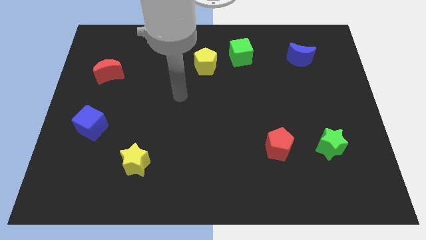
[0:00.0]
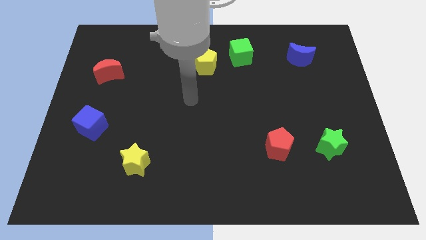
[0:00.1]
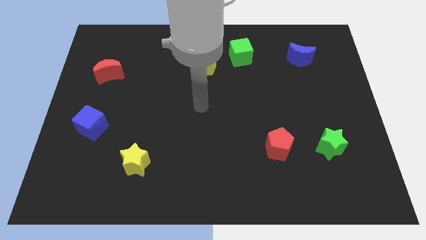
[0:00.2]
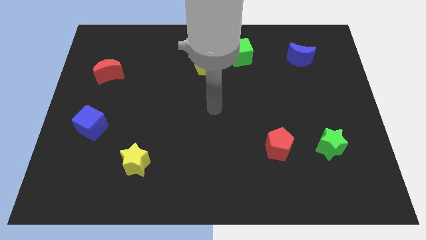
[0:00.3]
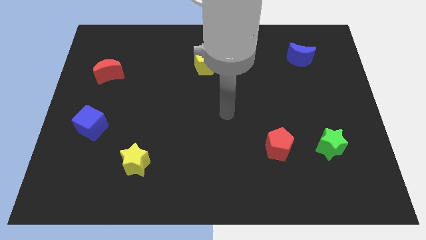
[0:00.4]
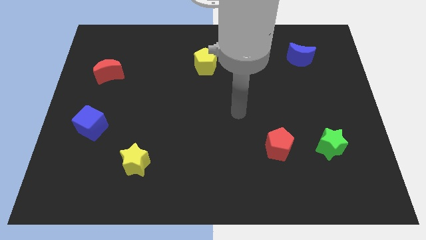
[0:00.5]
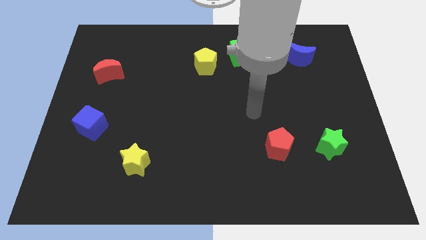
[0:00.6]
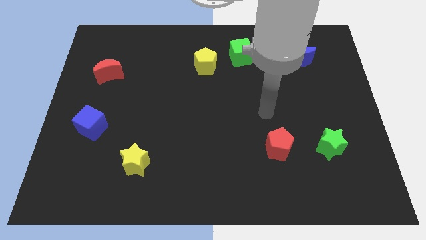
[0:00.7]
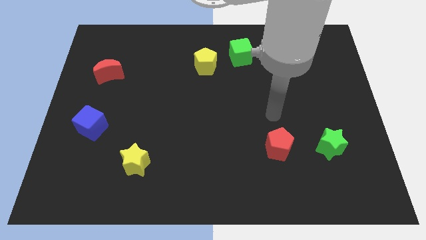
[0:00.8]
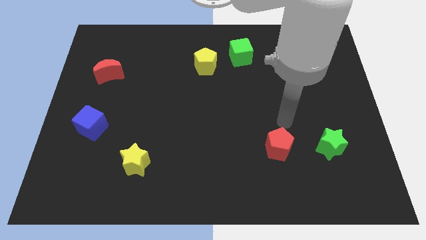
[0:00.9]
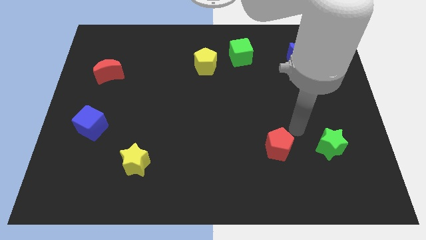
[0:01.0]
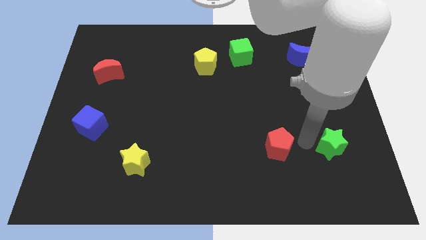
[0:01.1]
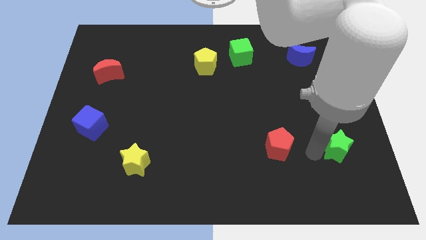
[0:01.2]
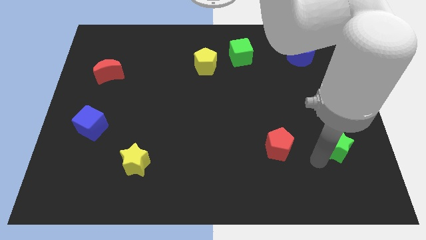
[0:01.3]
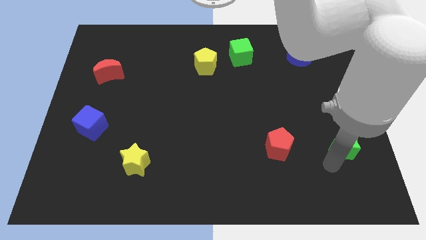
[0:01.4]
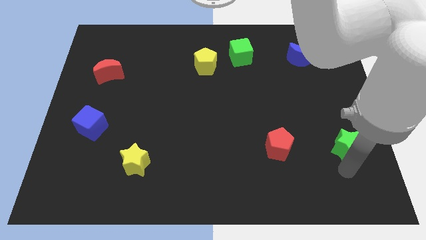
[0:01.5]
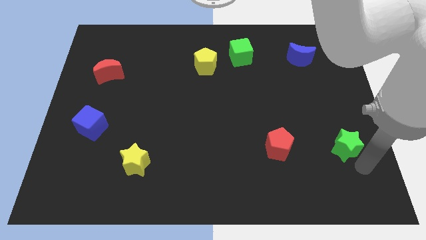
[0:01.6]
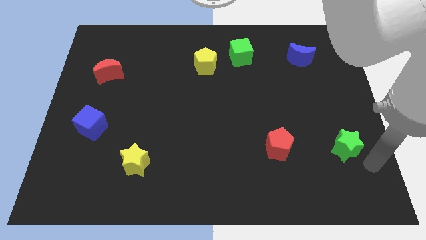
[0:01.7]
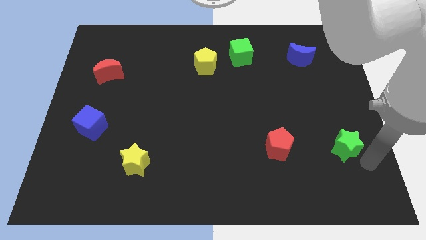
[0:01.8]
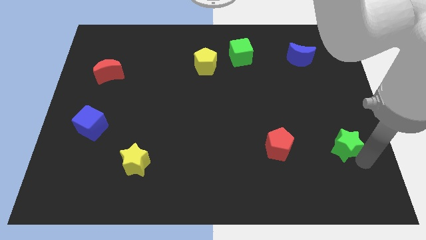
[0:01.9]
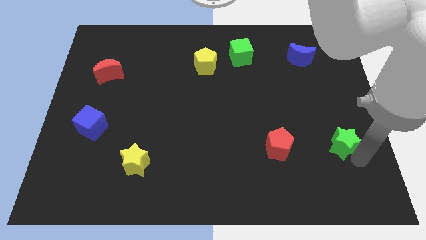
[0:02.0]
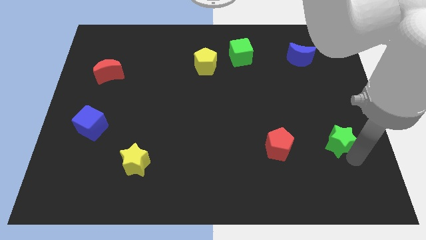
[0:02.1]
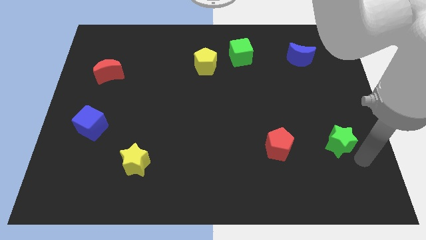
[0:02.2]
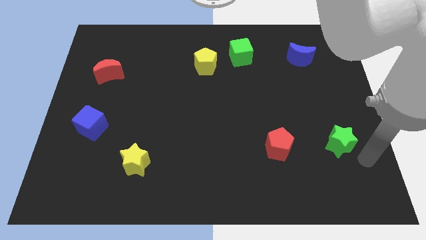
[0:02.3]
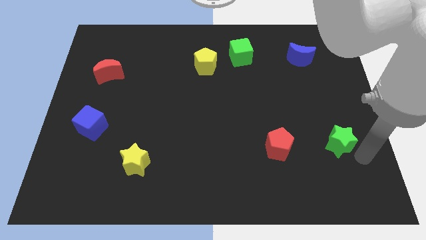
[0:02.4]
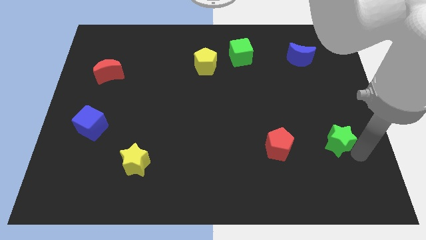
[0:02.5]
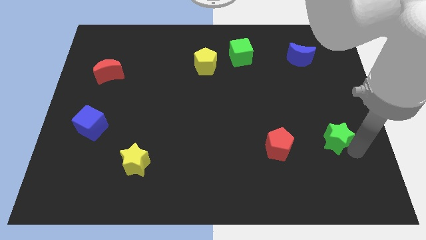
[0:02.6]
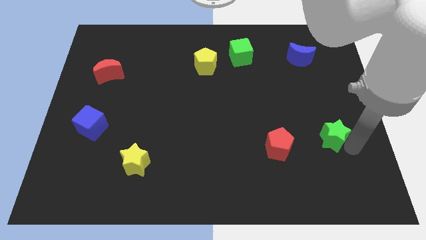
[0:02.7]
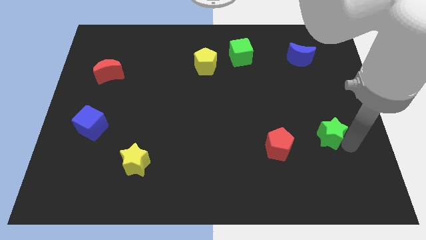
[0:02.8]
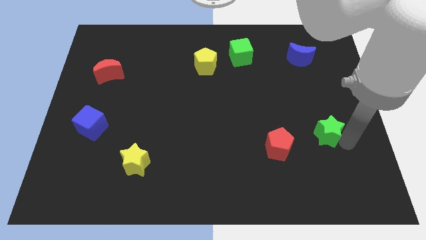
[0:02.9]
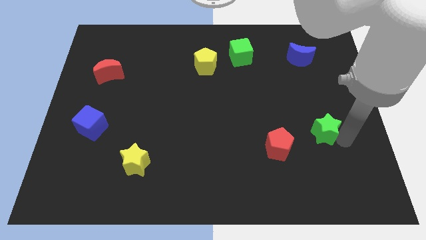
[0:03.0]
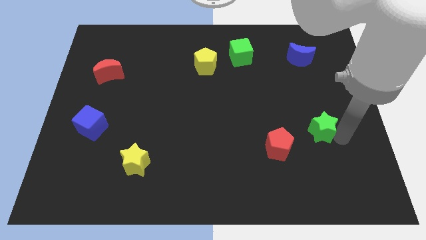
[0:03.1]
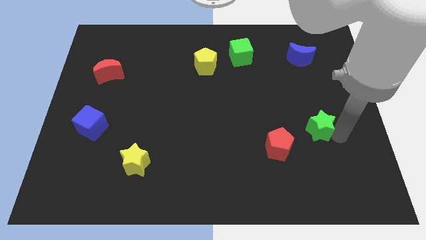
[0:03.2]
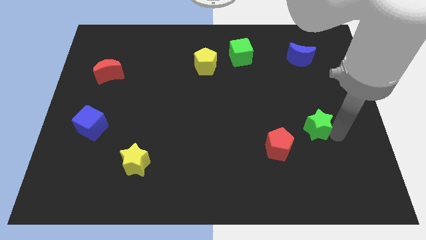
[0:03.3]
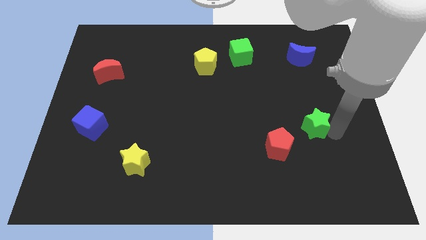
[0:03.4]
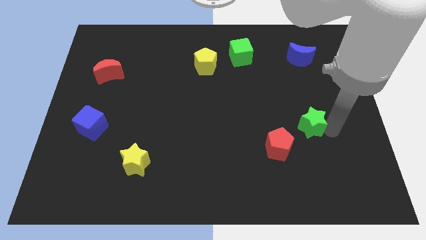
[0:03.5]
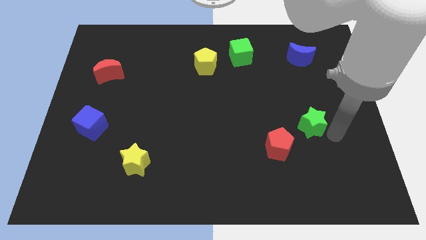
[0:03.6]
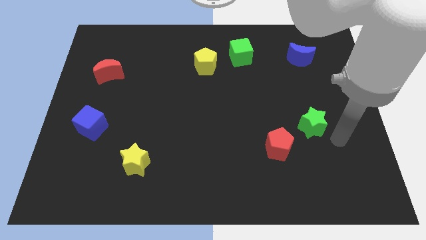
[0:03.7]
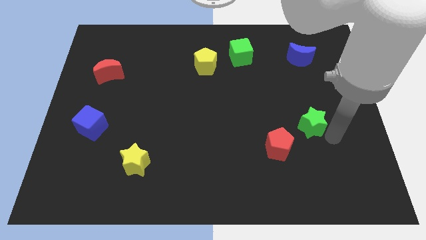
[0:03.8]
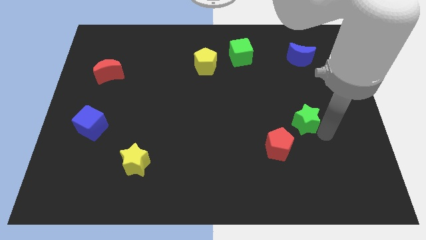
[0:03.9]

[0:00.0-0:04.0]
move the green star a little bit upwards and then left

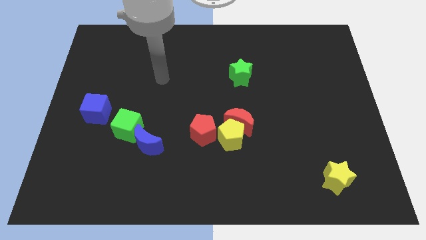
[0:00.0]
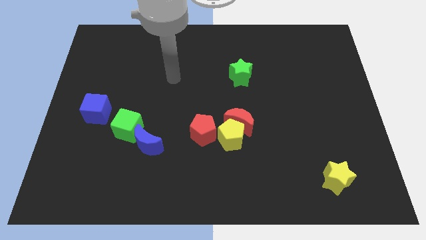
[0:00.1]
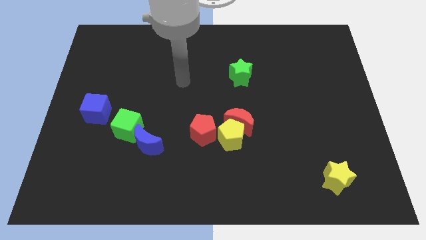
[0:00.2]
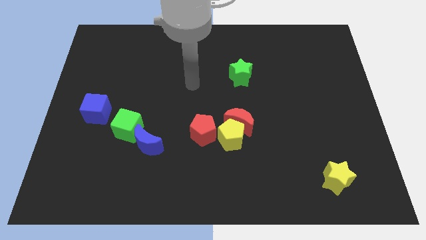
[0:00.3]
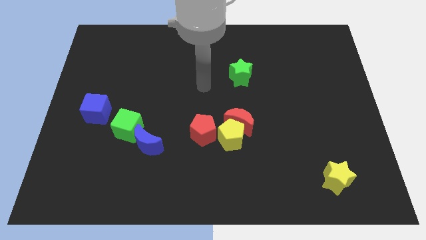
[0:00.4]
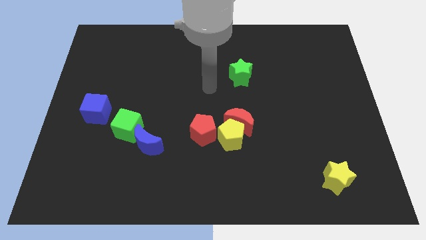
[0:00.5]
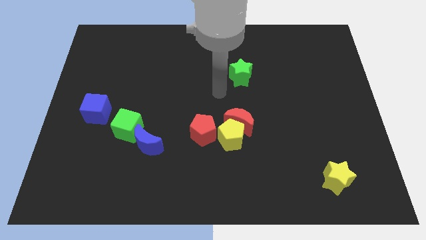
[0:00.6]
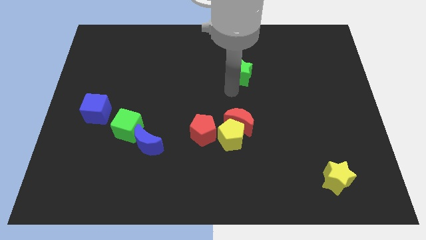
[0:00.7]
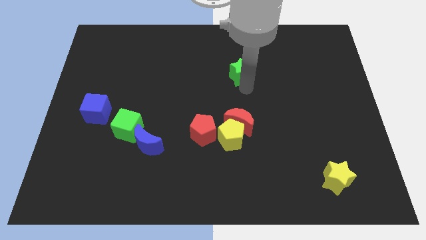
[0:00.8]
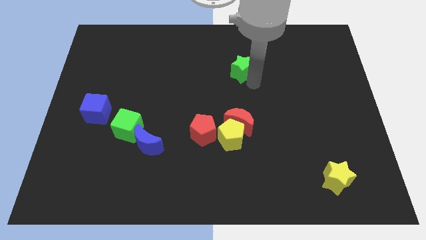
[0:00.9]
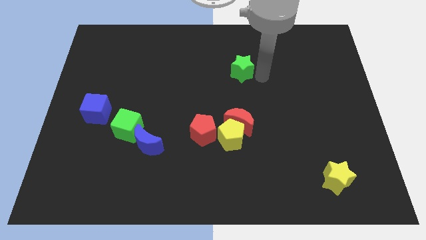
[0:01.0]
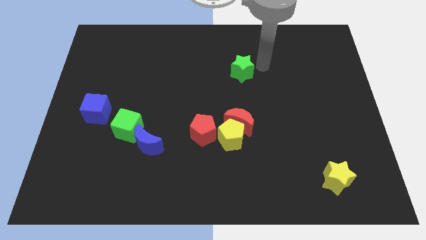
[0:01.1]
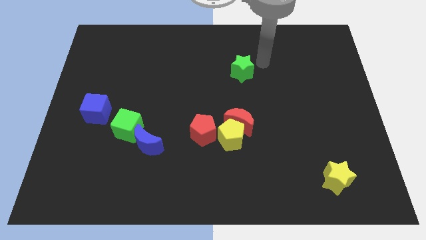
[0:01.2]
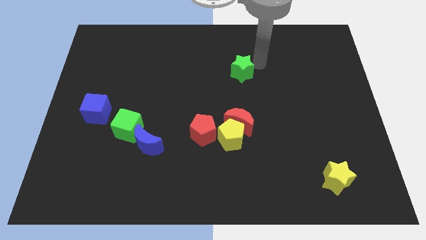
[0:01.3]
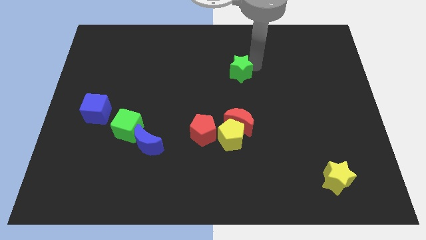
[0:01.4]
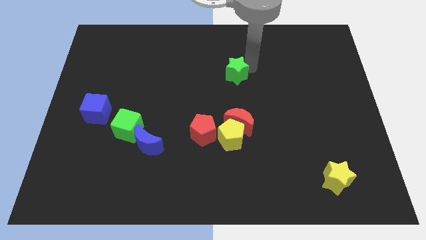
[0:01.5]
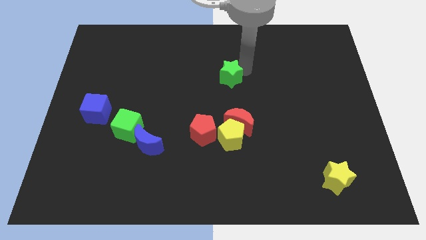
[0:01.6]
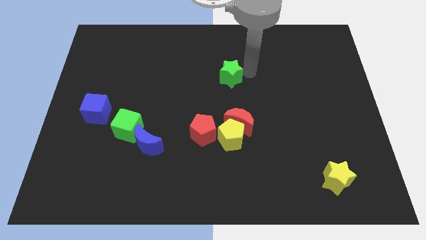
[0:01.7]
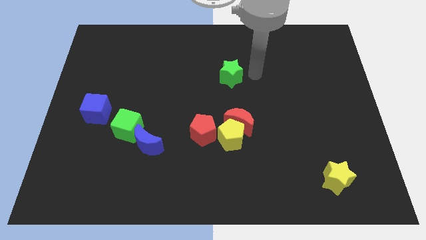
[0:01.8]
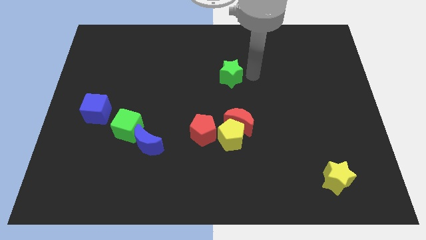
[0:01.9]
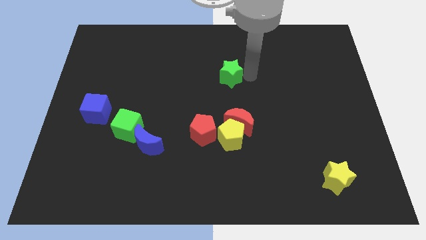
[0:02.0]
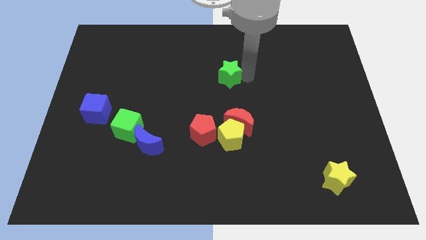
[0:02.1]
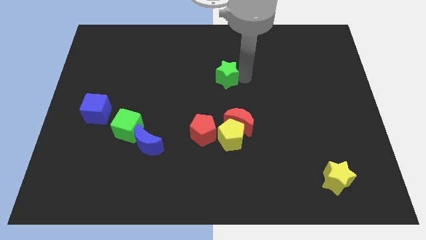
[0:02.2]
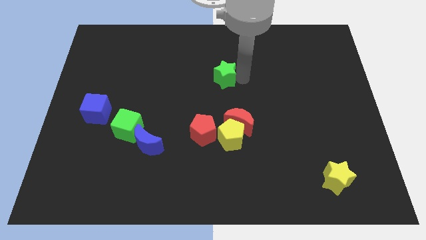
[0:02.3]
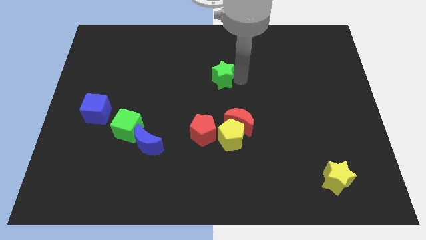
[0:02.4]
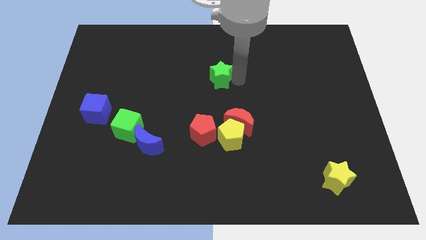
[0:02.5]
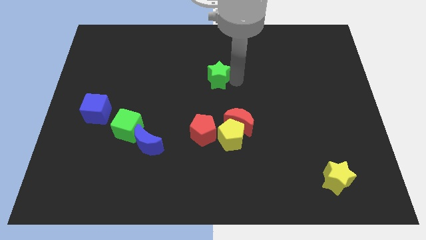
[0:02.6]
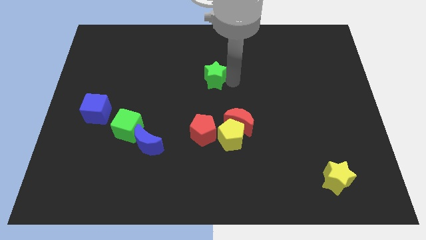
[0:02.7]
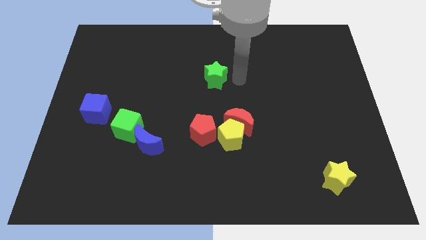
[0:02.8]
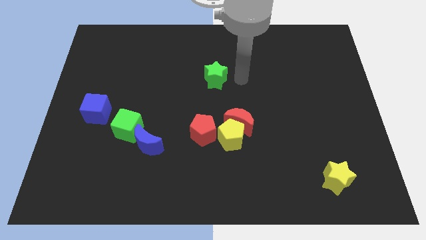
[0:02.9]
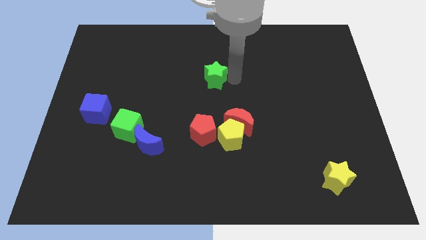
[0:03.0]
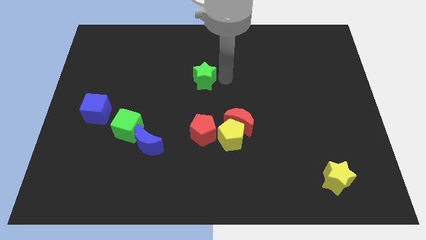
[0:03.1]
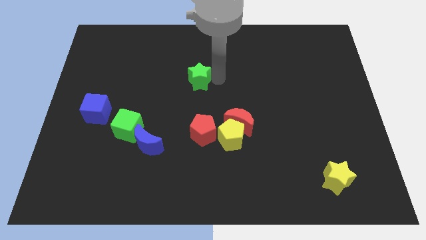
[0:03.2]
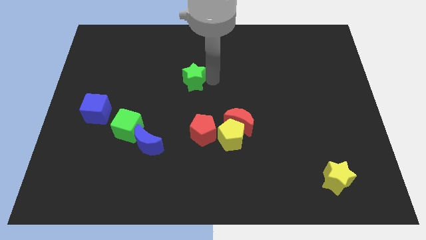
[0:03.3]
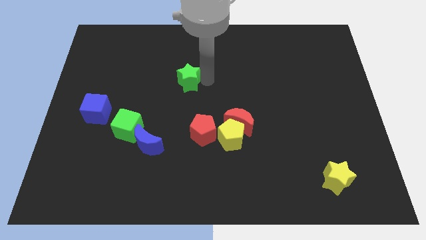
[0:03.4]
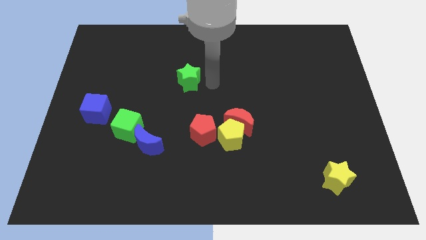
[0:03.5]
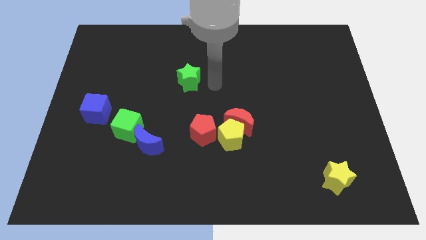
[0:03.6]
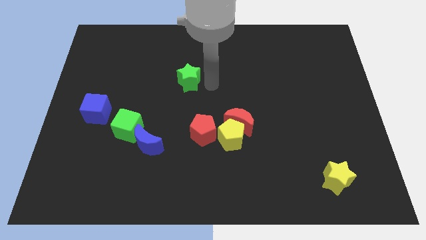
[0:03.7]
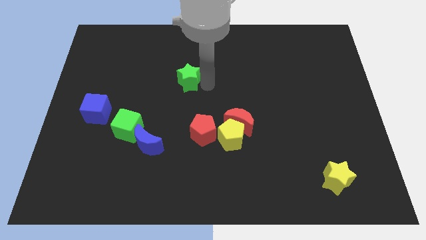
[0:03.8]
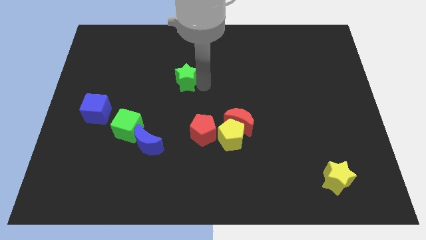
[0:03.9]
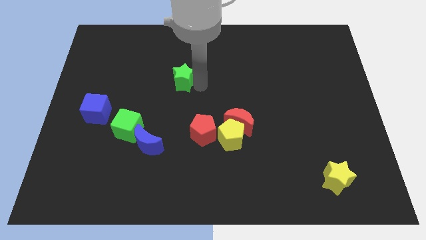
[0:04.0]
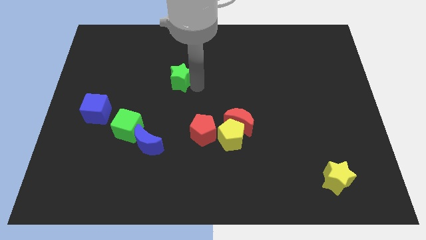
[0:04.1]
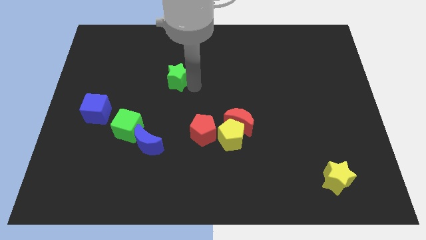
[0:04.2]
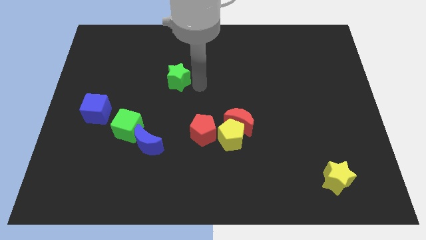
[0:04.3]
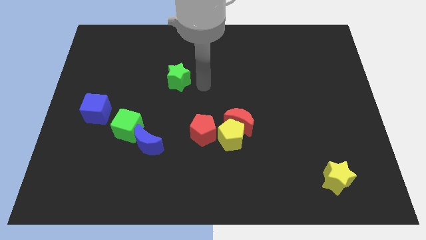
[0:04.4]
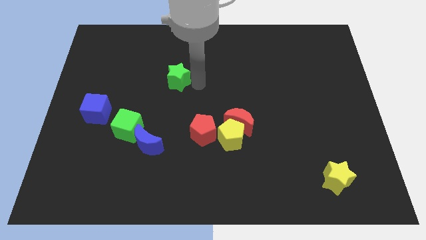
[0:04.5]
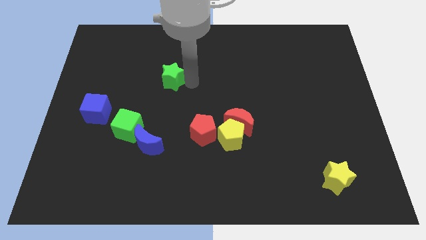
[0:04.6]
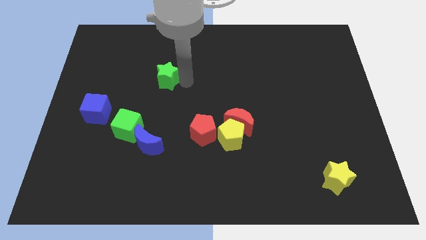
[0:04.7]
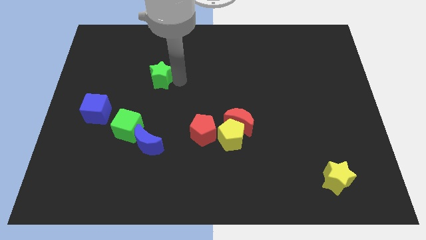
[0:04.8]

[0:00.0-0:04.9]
slide the green star to the left
